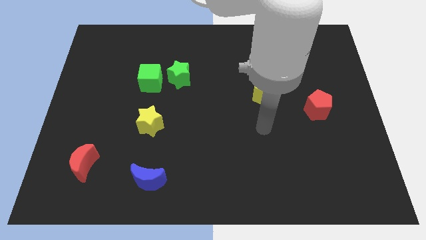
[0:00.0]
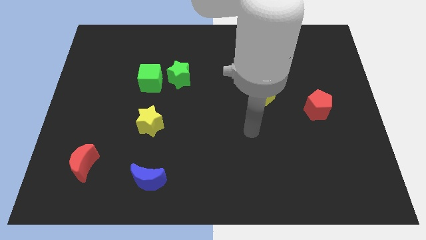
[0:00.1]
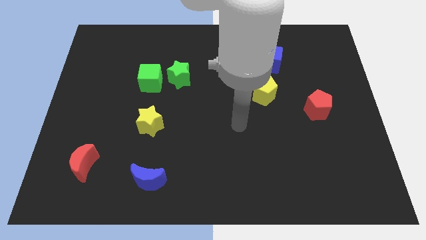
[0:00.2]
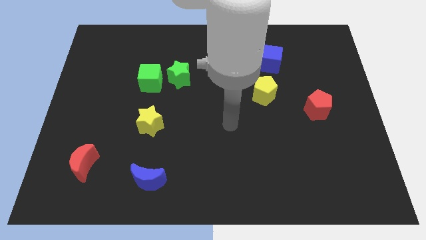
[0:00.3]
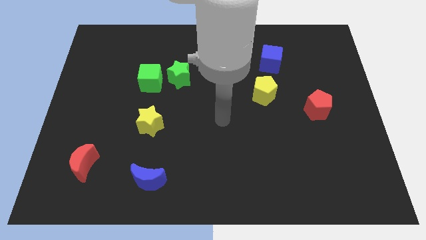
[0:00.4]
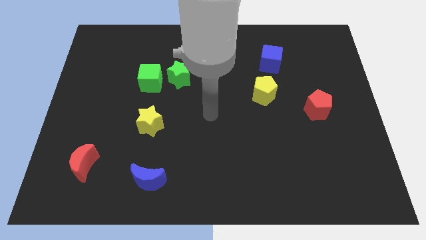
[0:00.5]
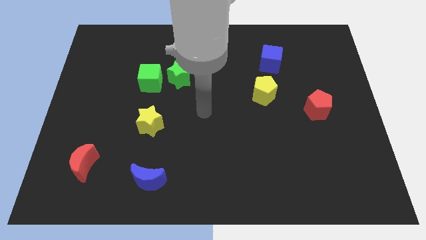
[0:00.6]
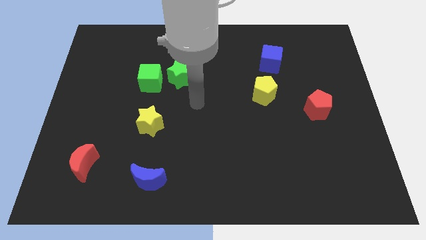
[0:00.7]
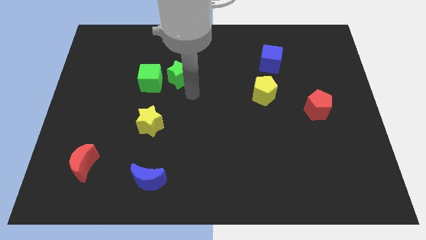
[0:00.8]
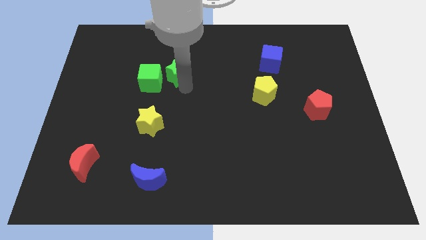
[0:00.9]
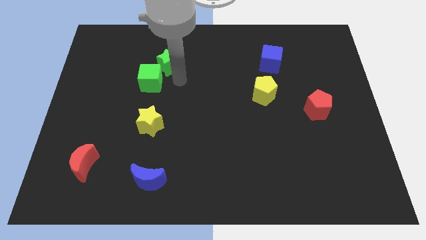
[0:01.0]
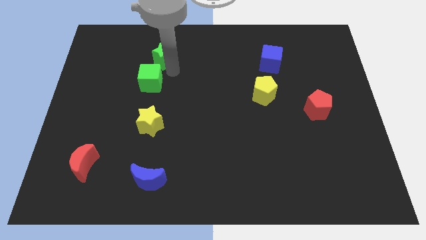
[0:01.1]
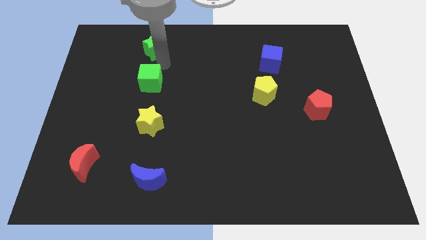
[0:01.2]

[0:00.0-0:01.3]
separate the green cube from the green star

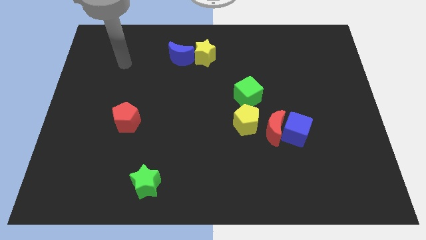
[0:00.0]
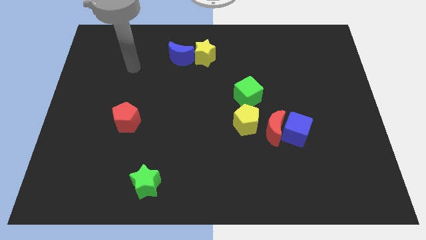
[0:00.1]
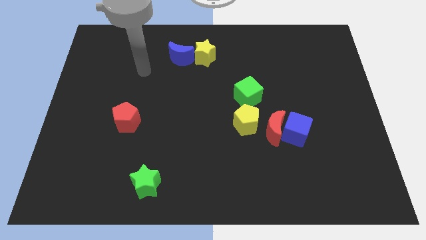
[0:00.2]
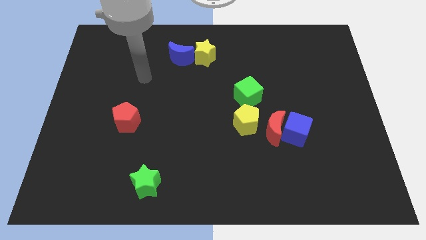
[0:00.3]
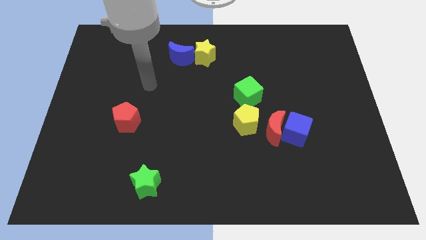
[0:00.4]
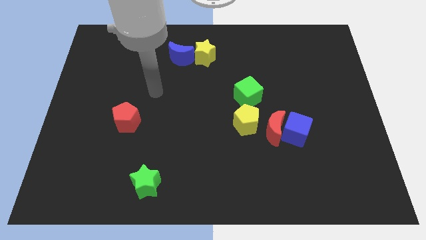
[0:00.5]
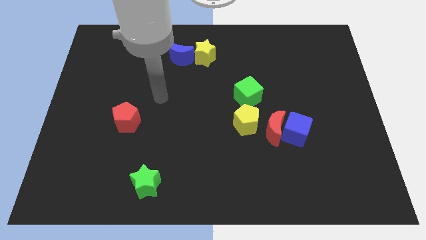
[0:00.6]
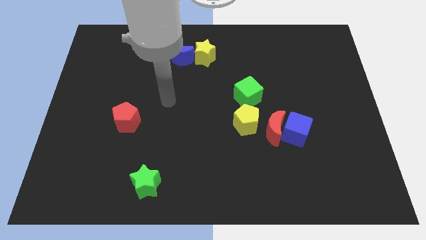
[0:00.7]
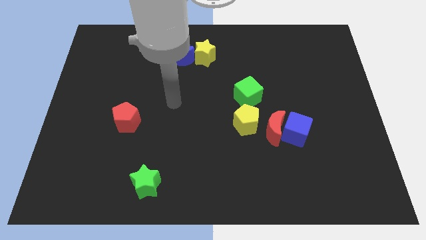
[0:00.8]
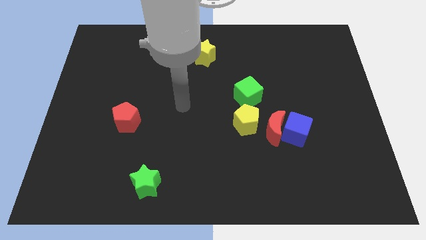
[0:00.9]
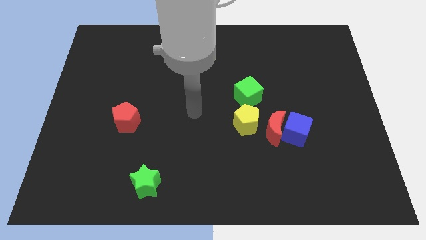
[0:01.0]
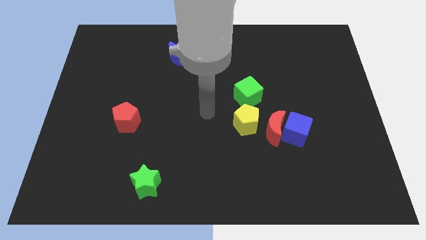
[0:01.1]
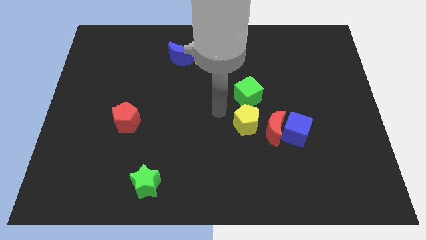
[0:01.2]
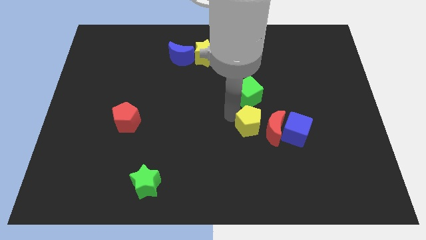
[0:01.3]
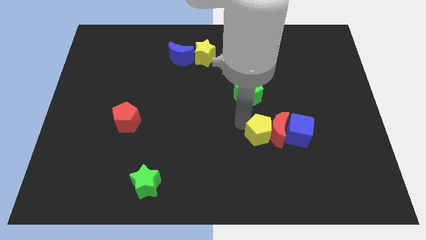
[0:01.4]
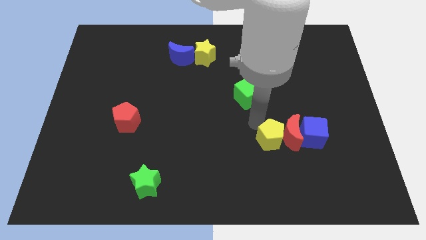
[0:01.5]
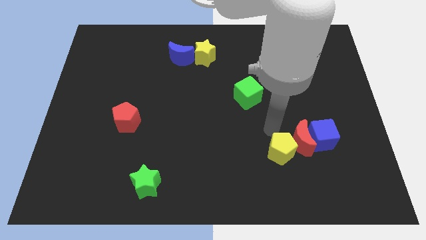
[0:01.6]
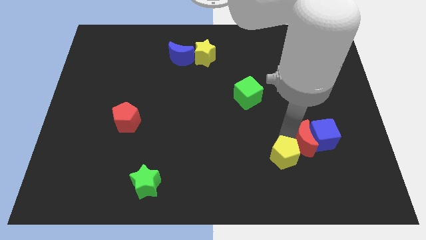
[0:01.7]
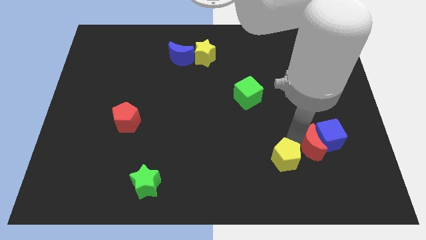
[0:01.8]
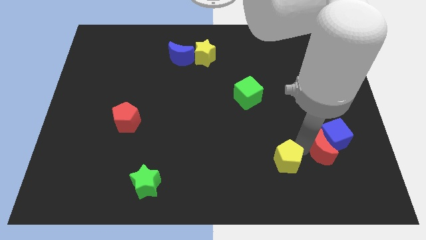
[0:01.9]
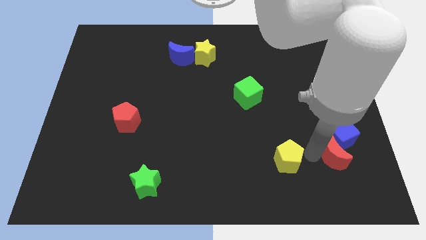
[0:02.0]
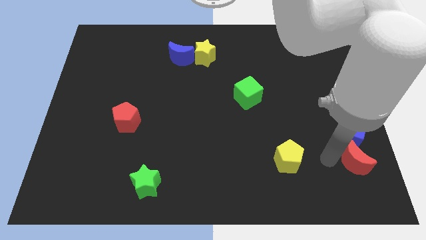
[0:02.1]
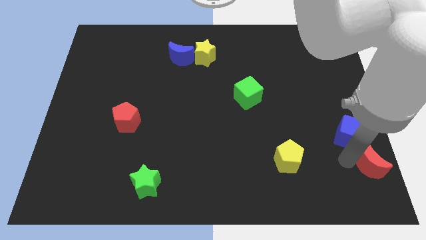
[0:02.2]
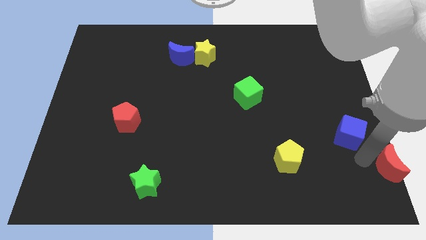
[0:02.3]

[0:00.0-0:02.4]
pull the blue cube apart from the red moon

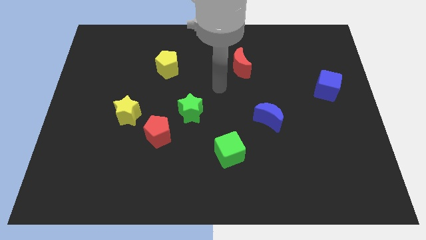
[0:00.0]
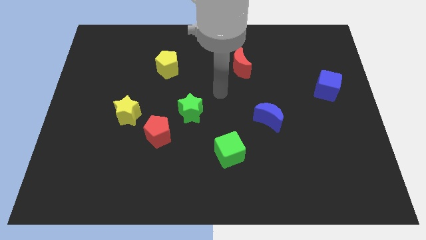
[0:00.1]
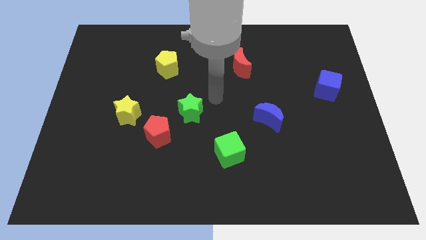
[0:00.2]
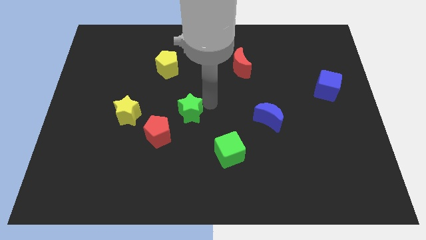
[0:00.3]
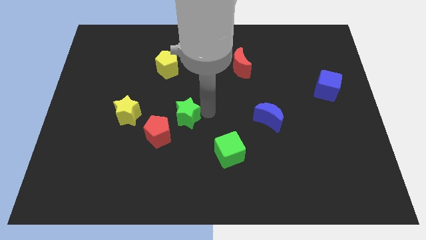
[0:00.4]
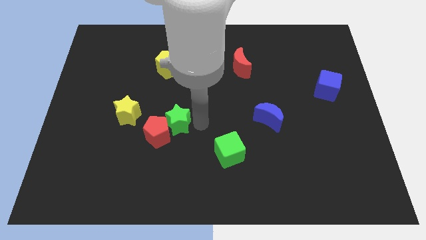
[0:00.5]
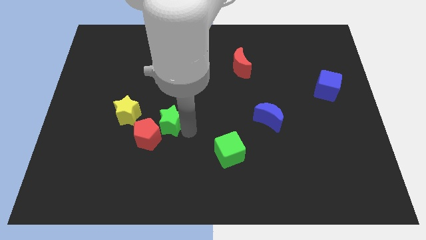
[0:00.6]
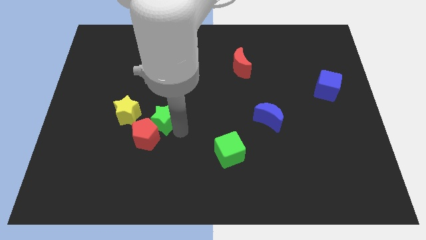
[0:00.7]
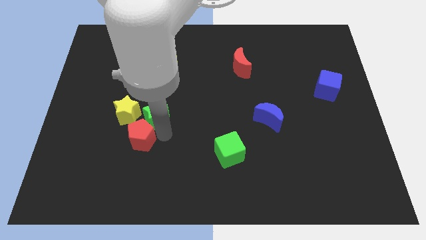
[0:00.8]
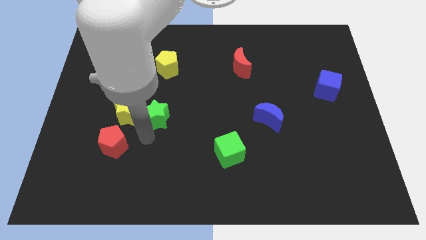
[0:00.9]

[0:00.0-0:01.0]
move the green star away from the red pentagon

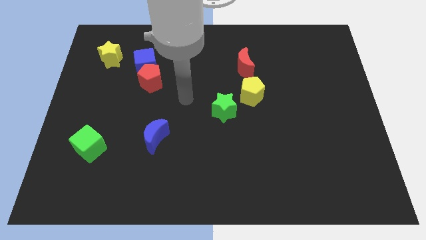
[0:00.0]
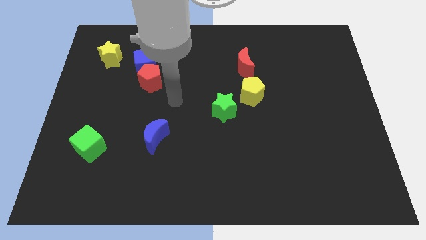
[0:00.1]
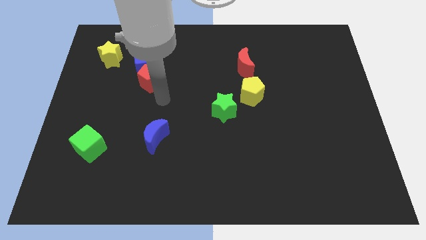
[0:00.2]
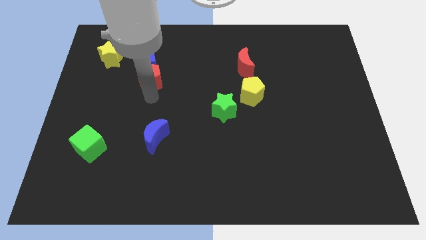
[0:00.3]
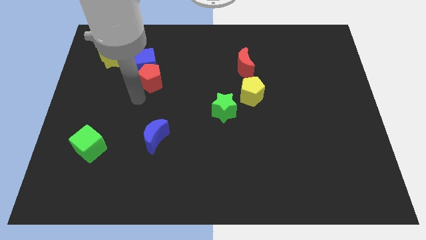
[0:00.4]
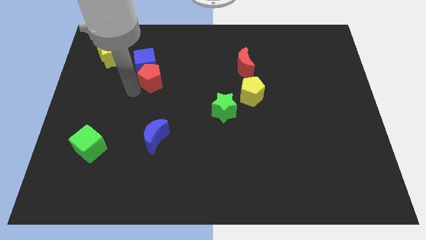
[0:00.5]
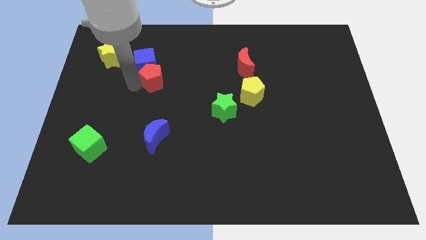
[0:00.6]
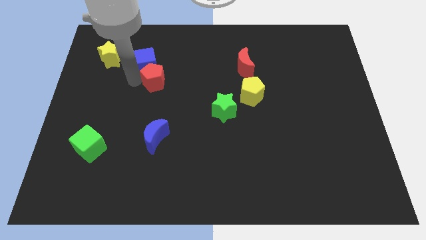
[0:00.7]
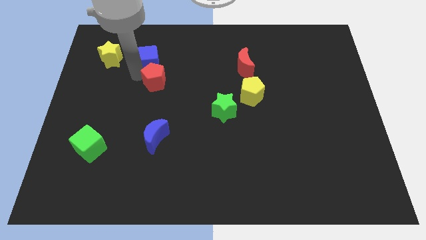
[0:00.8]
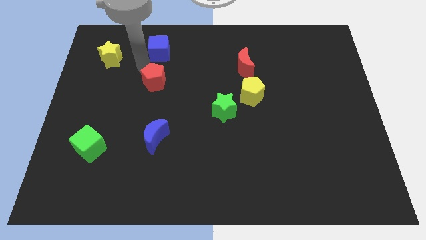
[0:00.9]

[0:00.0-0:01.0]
pull the red pentagon apart from the blue cube

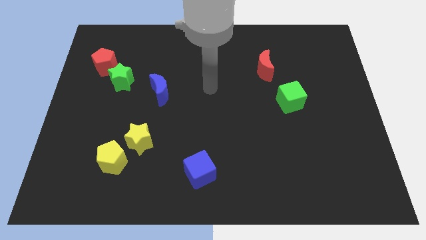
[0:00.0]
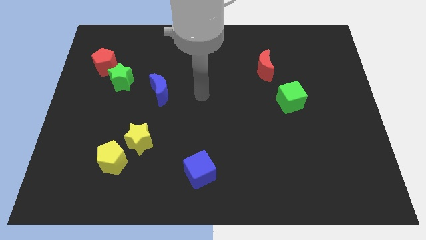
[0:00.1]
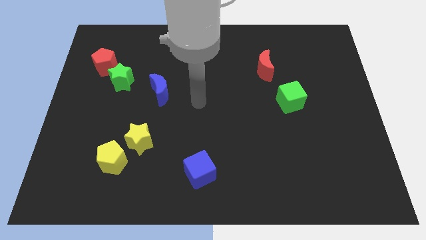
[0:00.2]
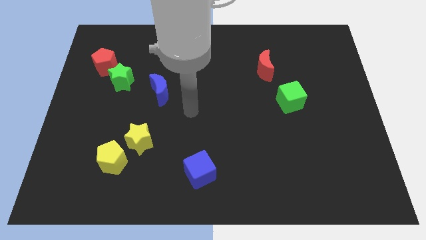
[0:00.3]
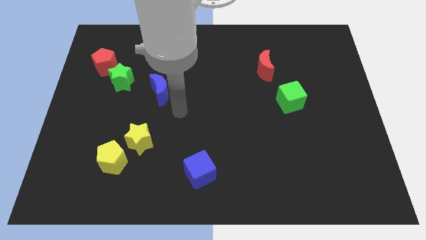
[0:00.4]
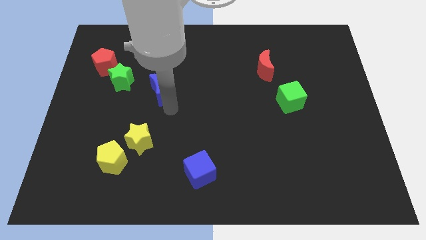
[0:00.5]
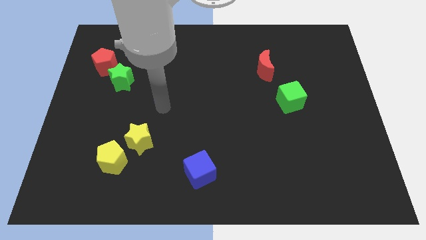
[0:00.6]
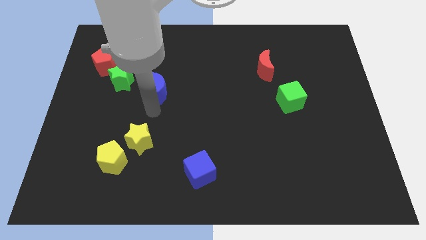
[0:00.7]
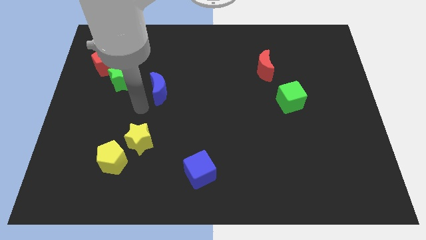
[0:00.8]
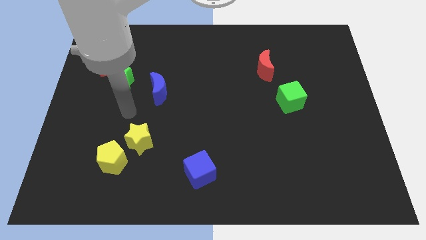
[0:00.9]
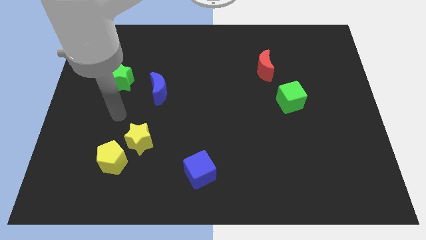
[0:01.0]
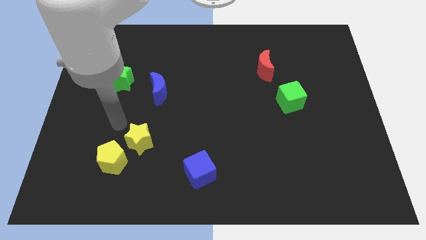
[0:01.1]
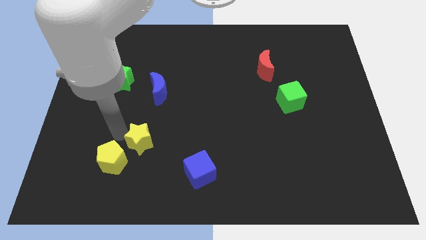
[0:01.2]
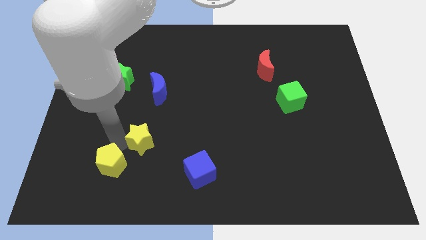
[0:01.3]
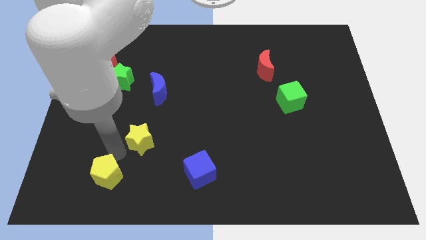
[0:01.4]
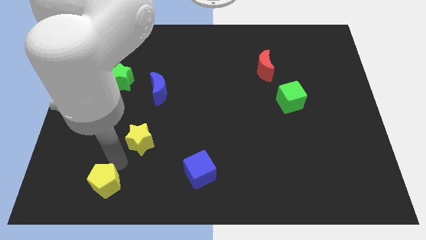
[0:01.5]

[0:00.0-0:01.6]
separate the yellow star from the yellow pentagon

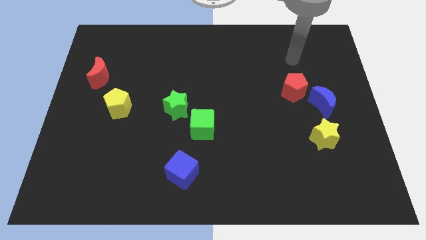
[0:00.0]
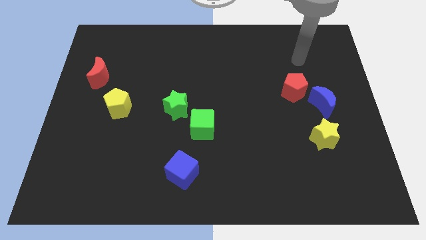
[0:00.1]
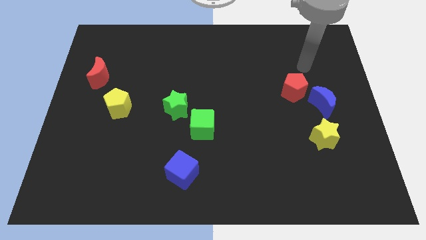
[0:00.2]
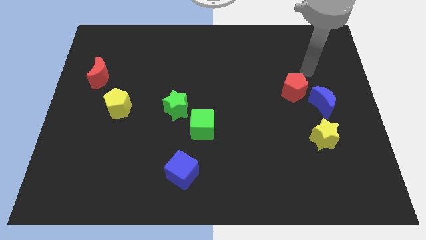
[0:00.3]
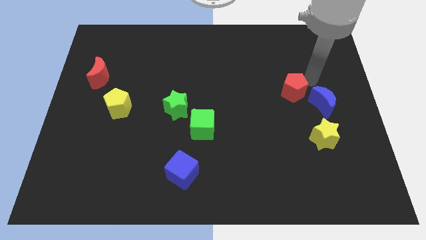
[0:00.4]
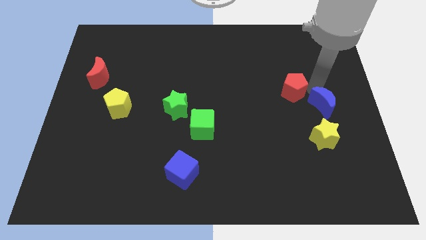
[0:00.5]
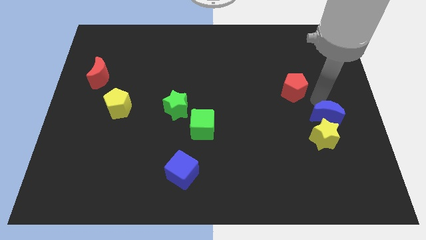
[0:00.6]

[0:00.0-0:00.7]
pull the red pentagon apart from the blue moon

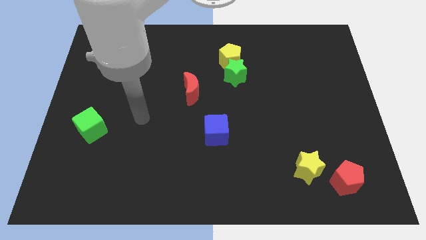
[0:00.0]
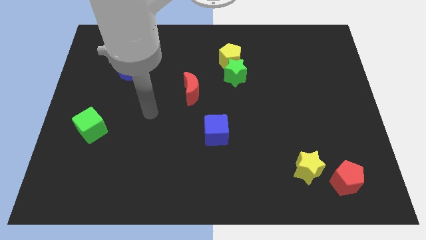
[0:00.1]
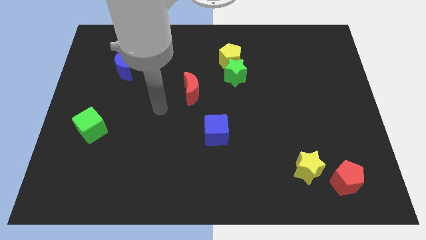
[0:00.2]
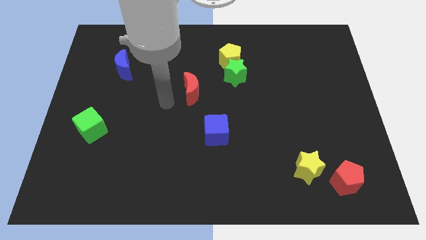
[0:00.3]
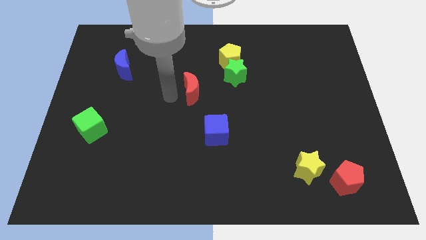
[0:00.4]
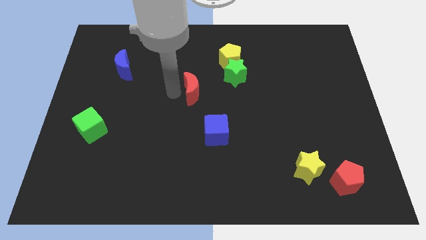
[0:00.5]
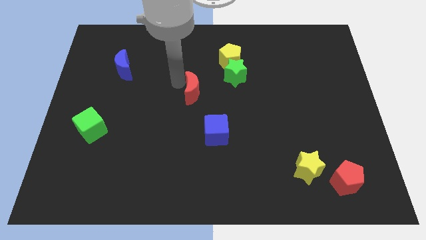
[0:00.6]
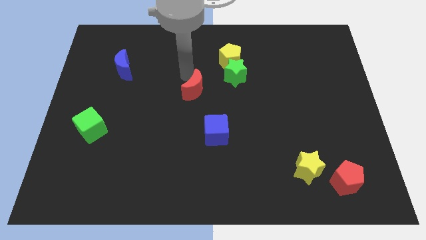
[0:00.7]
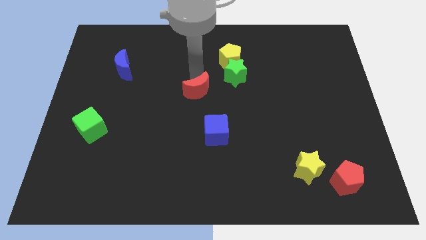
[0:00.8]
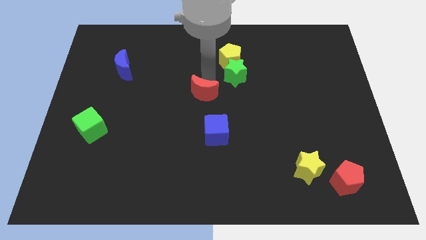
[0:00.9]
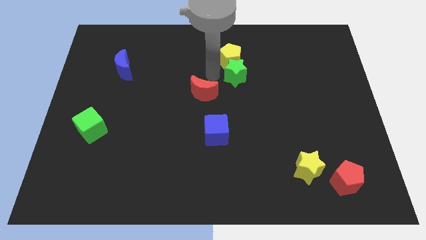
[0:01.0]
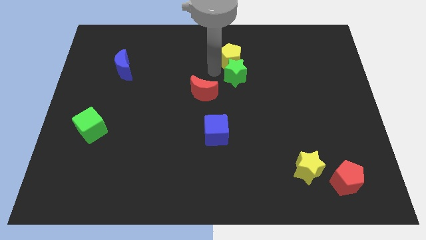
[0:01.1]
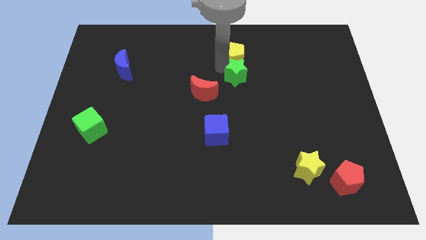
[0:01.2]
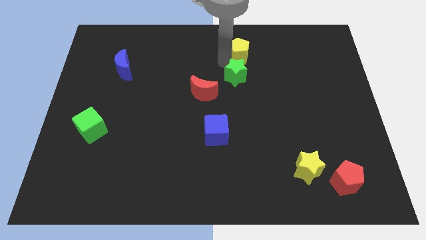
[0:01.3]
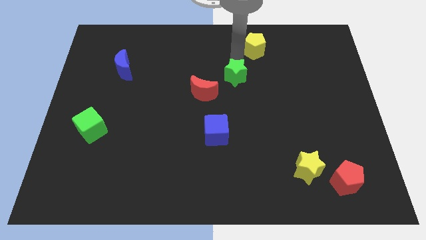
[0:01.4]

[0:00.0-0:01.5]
separate the green star from the yellow pentagon
